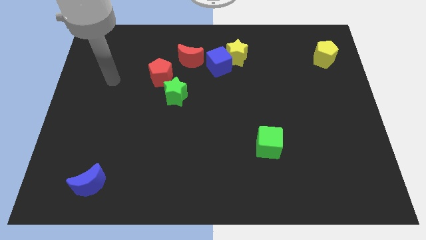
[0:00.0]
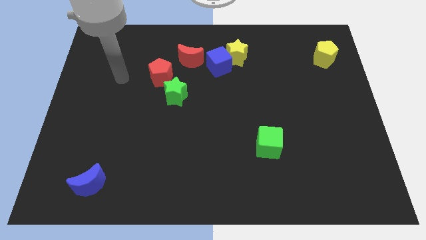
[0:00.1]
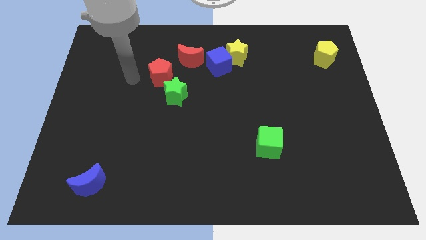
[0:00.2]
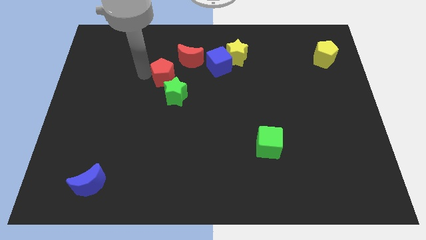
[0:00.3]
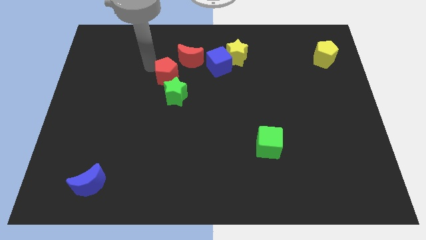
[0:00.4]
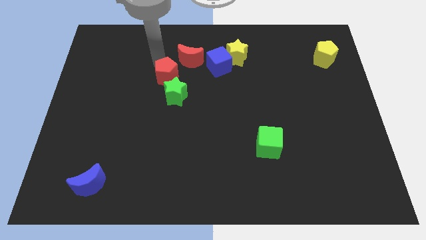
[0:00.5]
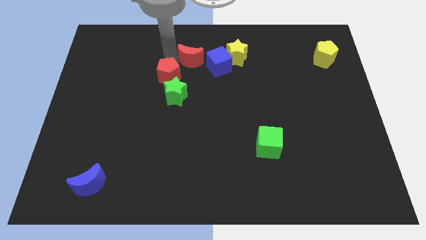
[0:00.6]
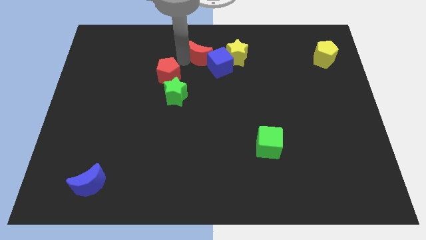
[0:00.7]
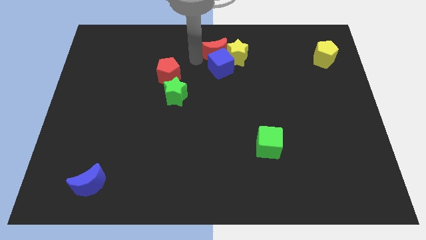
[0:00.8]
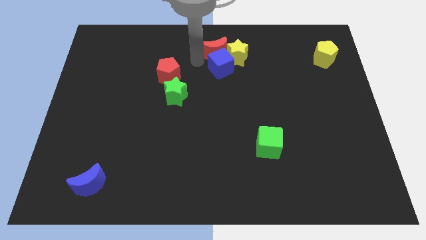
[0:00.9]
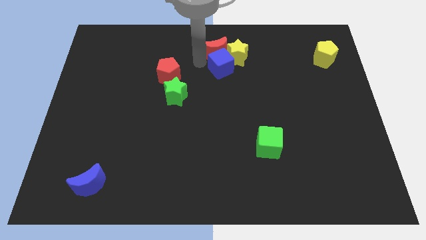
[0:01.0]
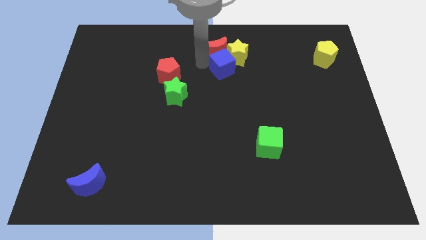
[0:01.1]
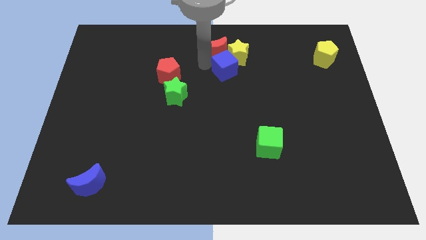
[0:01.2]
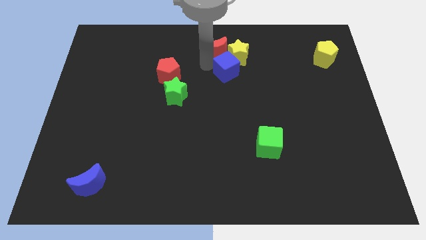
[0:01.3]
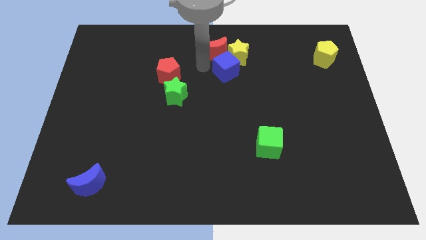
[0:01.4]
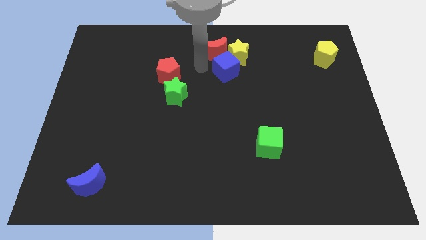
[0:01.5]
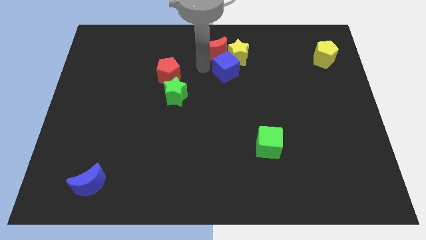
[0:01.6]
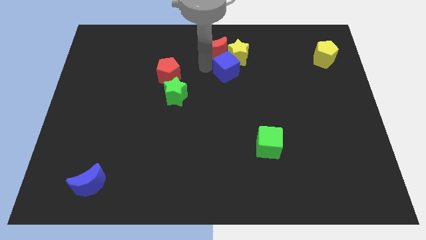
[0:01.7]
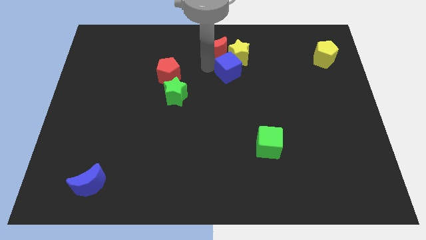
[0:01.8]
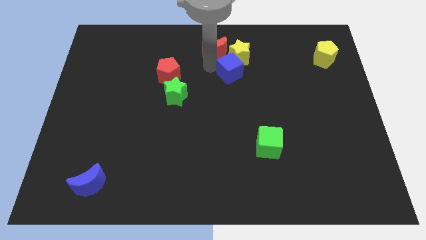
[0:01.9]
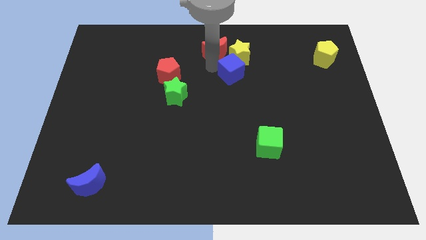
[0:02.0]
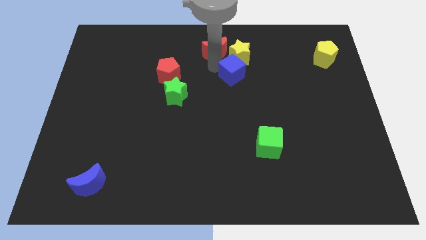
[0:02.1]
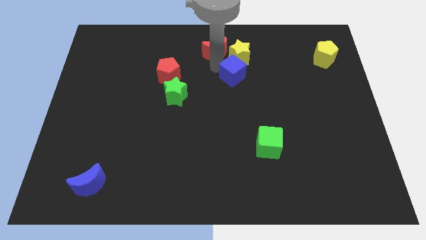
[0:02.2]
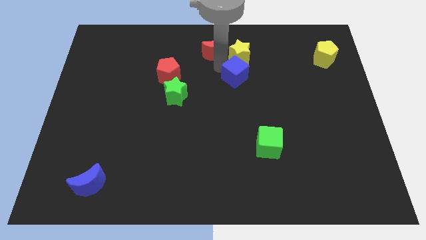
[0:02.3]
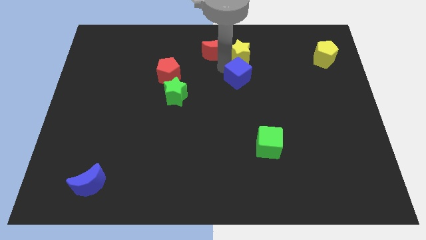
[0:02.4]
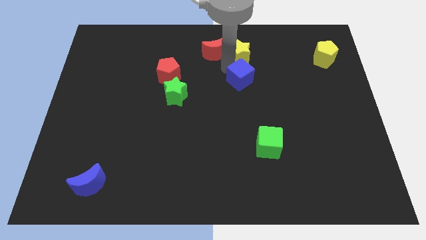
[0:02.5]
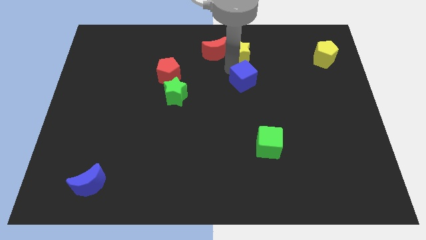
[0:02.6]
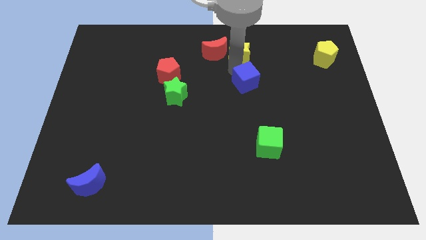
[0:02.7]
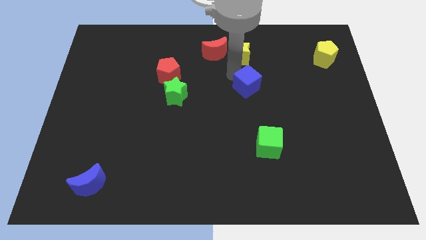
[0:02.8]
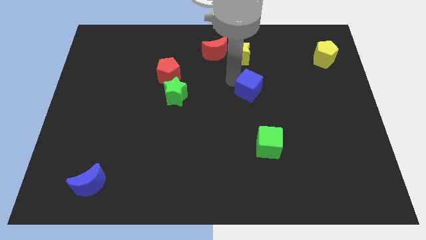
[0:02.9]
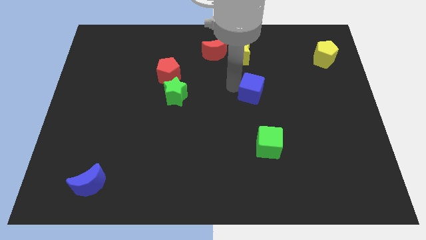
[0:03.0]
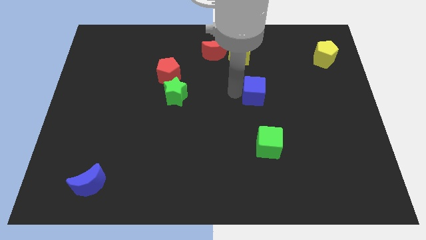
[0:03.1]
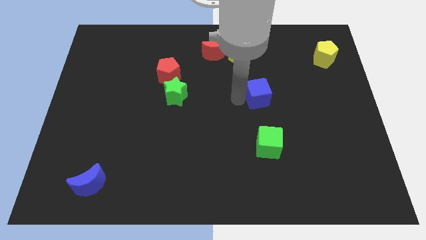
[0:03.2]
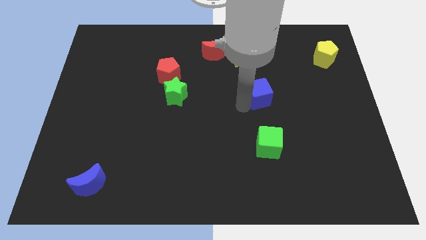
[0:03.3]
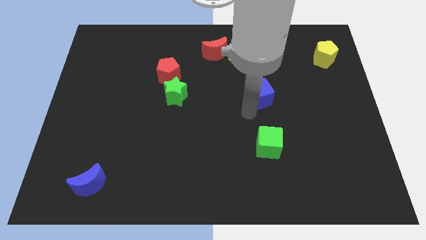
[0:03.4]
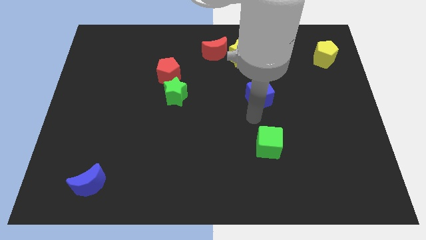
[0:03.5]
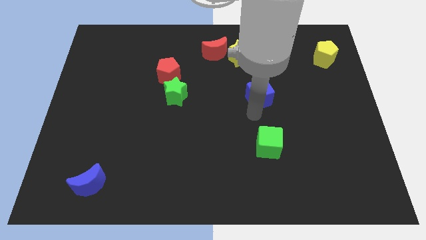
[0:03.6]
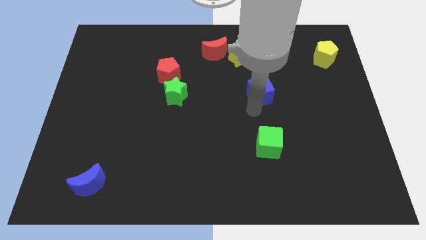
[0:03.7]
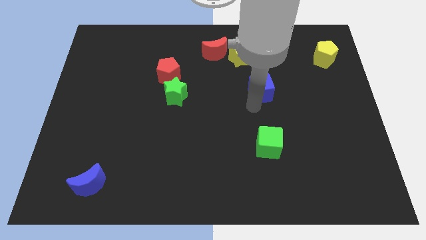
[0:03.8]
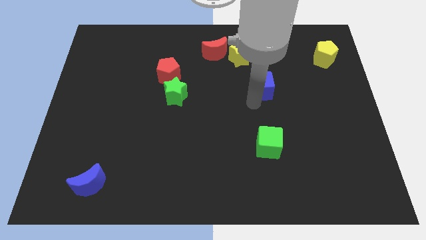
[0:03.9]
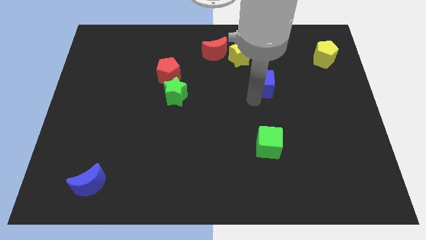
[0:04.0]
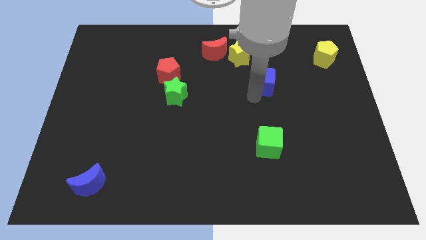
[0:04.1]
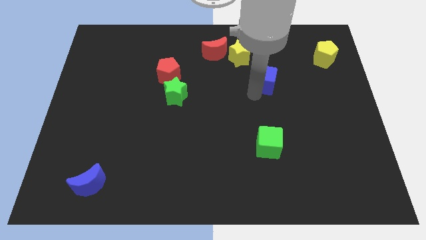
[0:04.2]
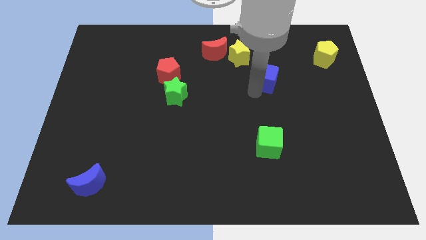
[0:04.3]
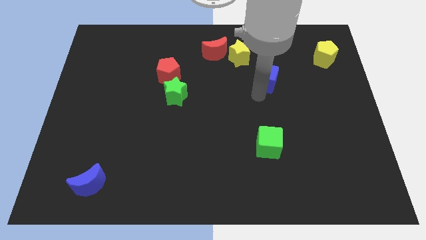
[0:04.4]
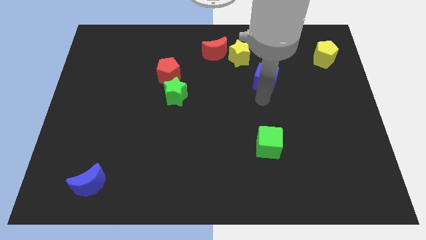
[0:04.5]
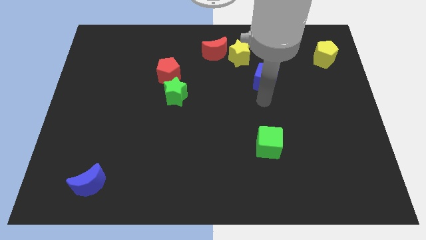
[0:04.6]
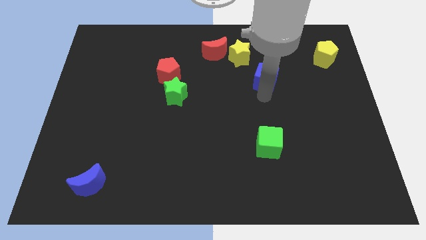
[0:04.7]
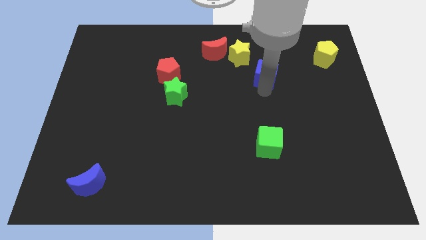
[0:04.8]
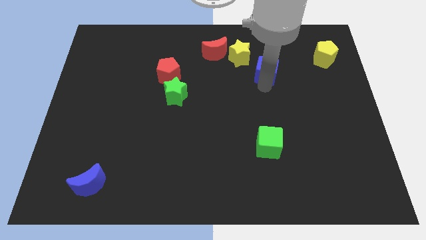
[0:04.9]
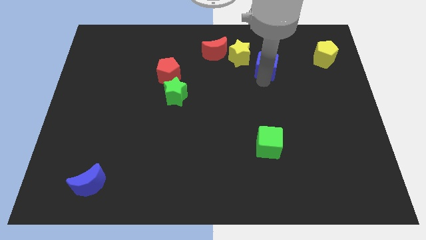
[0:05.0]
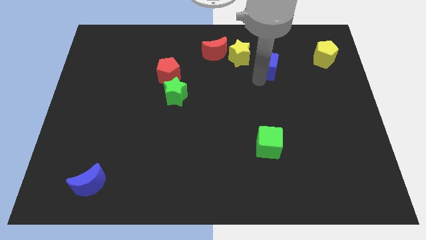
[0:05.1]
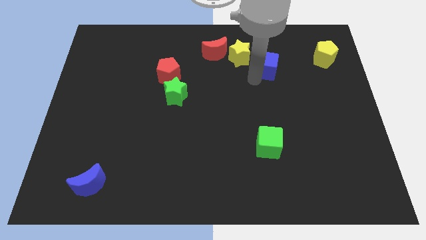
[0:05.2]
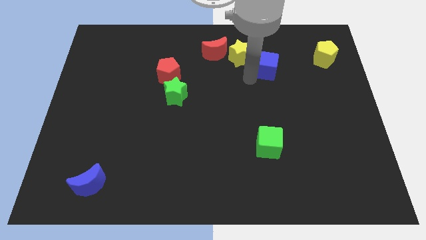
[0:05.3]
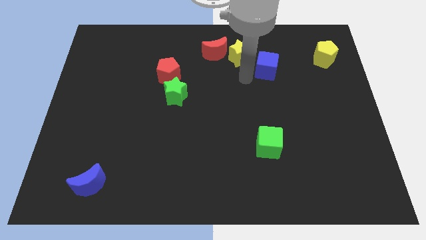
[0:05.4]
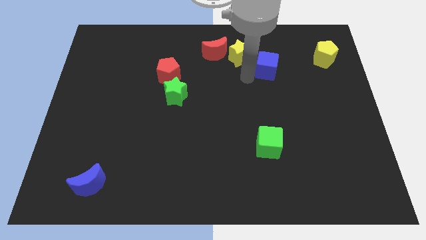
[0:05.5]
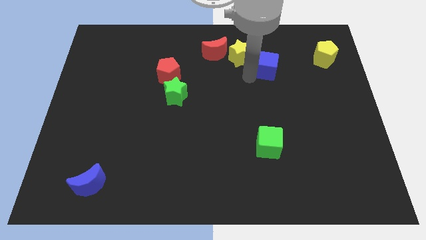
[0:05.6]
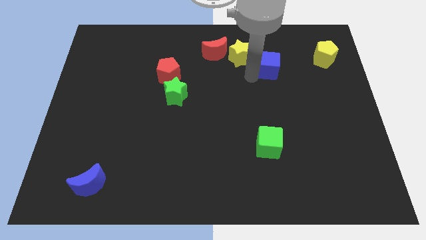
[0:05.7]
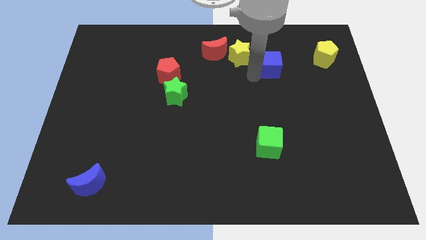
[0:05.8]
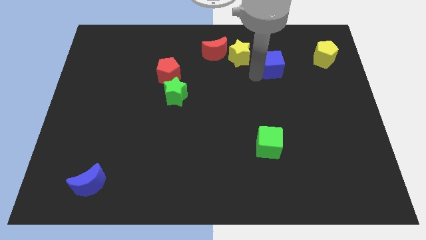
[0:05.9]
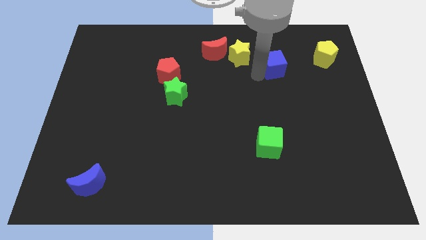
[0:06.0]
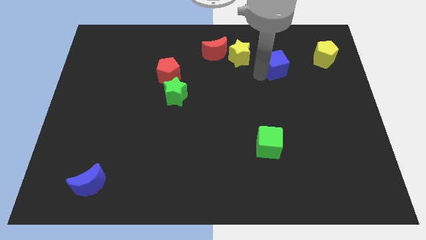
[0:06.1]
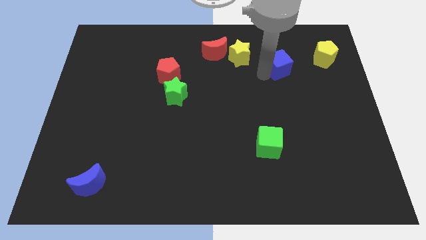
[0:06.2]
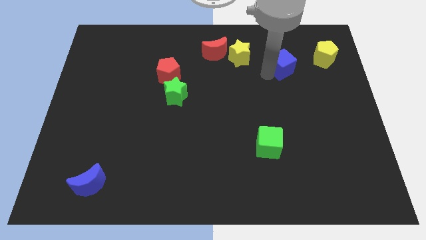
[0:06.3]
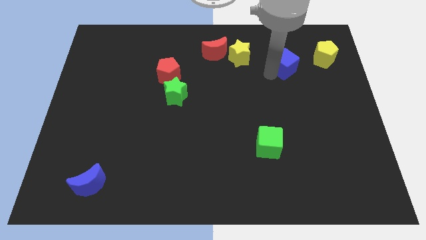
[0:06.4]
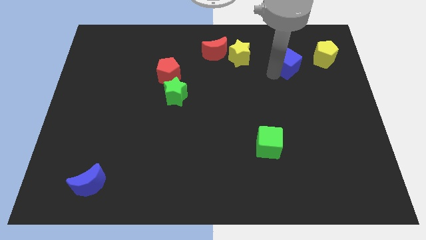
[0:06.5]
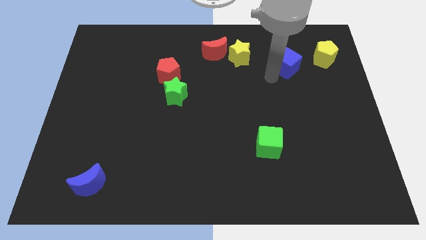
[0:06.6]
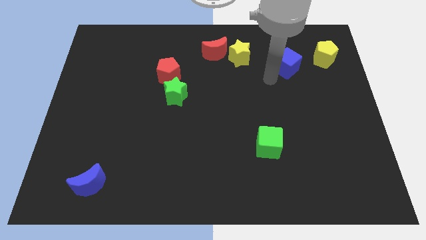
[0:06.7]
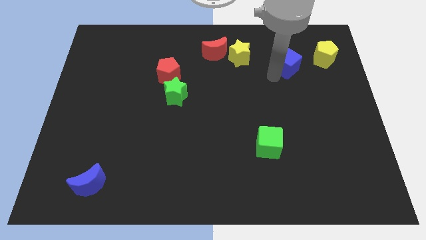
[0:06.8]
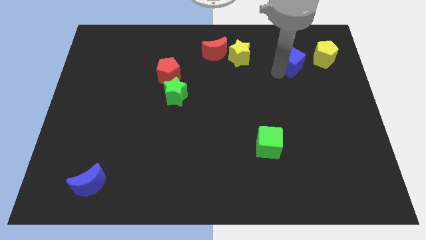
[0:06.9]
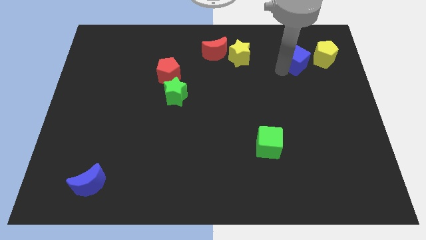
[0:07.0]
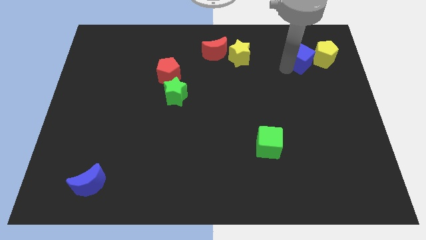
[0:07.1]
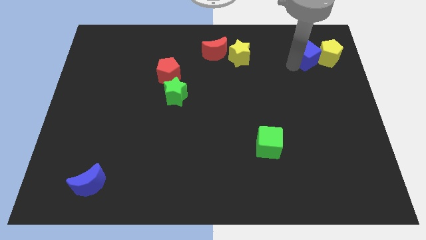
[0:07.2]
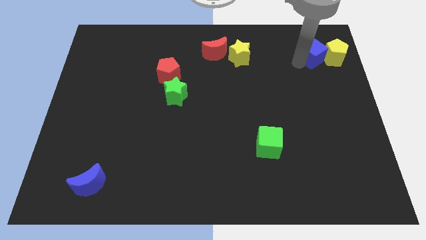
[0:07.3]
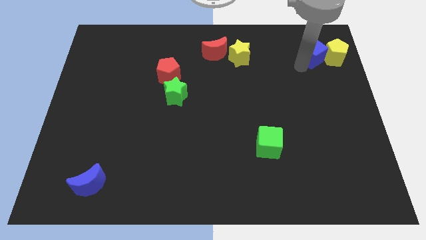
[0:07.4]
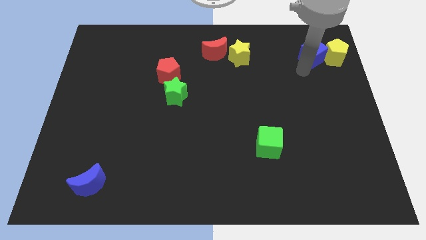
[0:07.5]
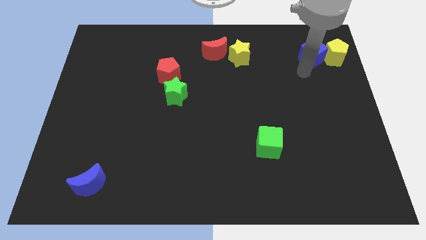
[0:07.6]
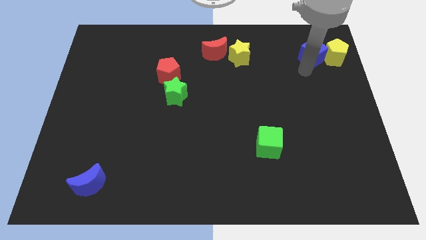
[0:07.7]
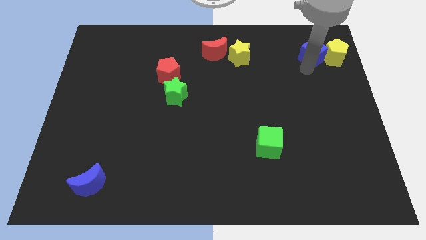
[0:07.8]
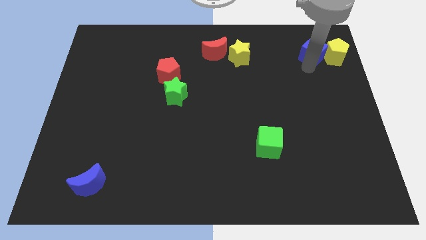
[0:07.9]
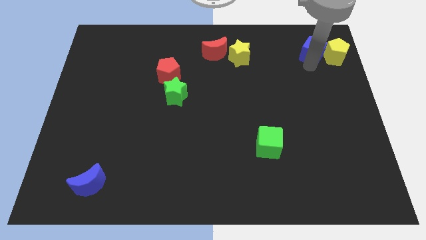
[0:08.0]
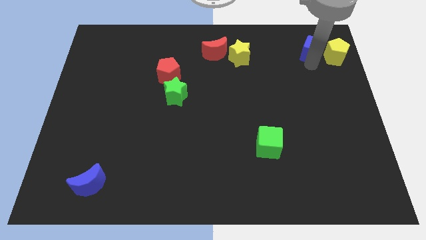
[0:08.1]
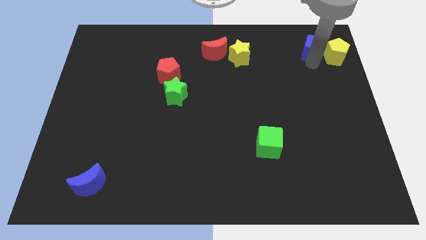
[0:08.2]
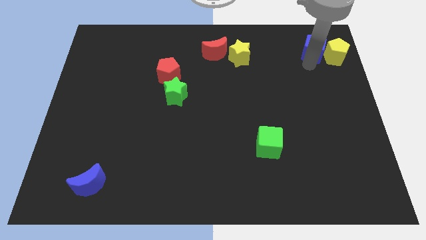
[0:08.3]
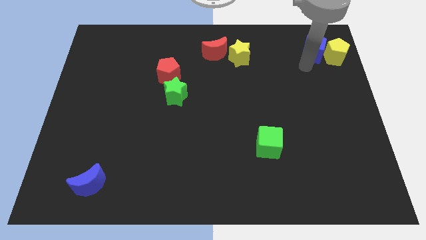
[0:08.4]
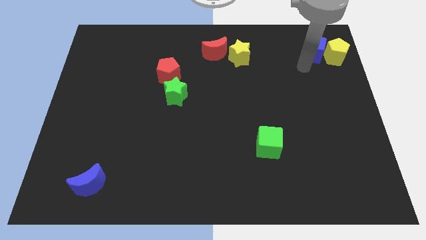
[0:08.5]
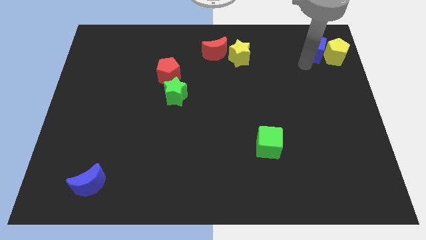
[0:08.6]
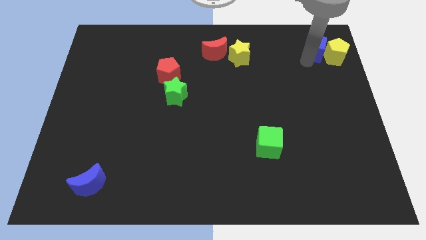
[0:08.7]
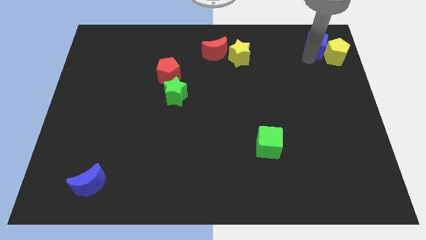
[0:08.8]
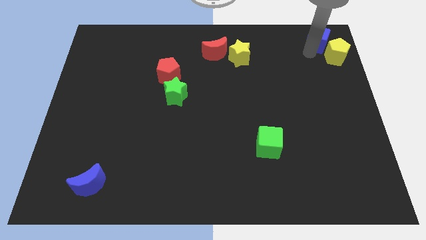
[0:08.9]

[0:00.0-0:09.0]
move the blue cube to the upper right corner
